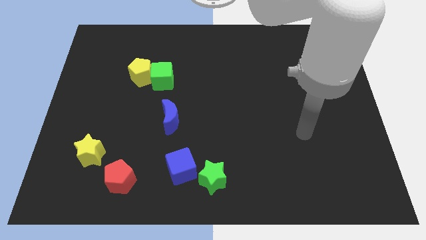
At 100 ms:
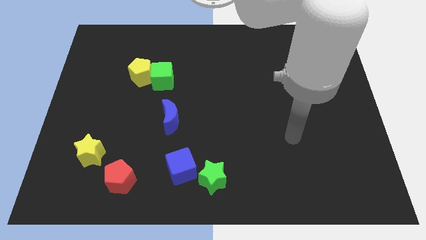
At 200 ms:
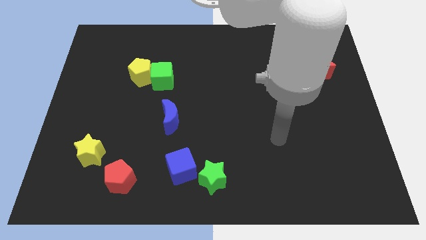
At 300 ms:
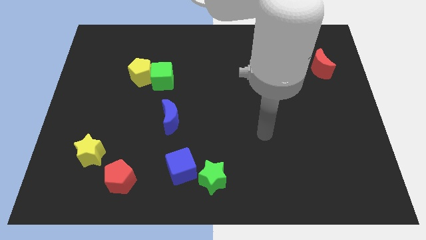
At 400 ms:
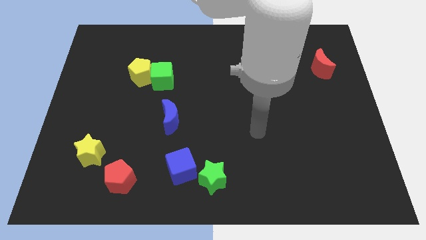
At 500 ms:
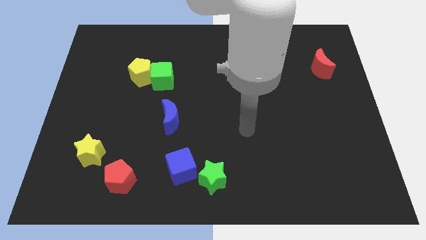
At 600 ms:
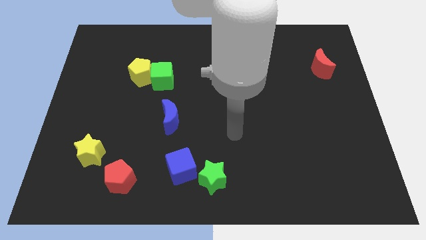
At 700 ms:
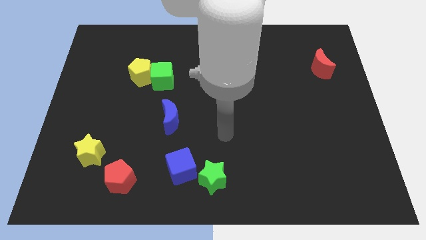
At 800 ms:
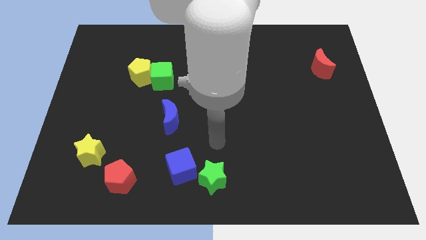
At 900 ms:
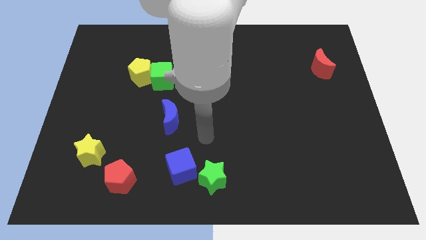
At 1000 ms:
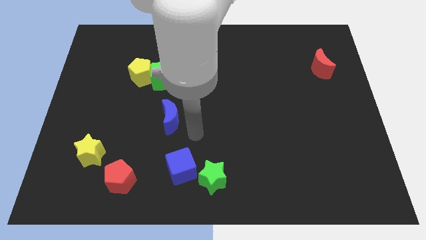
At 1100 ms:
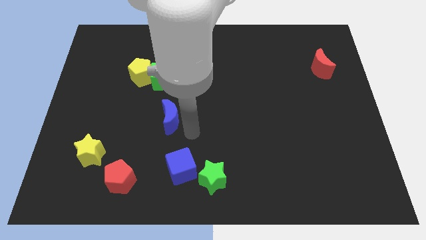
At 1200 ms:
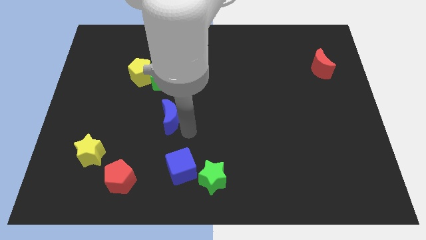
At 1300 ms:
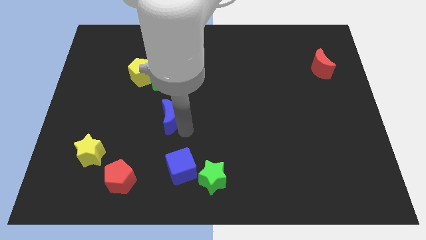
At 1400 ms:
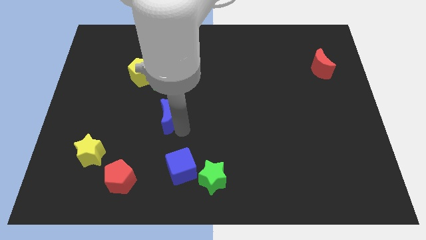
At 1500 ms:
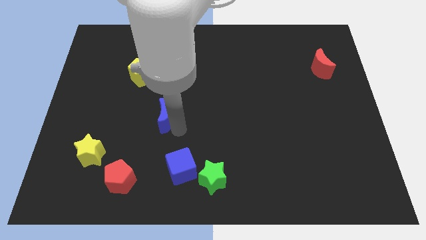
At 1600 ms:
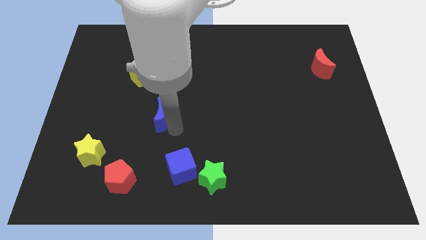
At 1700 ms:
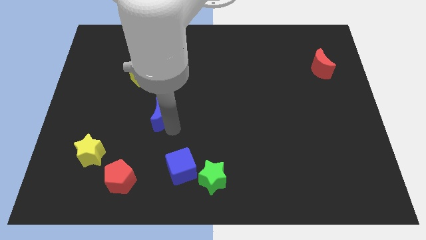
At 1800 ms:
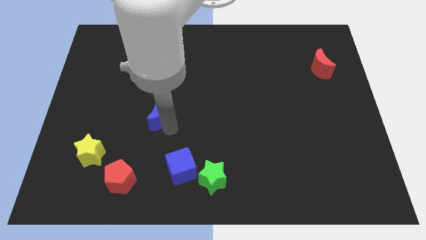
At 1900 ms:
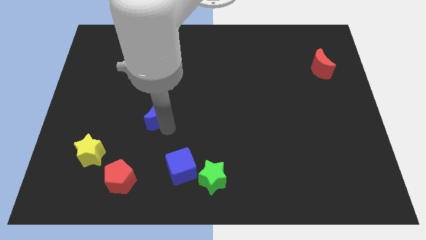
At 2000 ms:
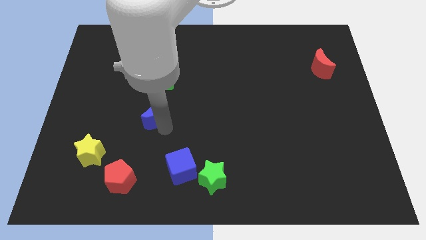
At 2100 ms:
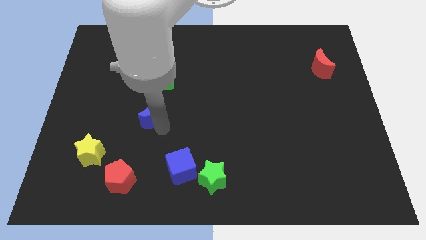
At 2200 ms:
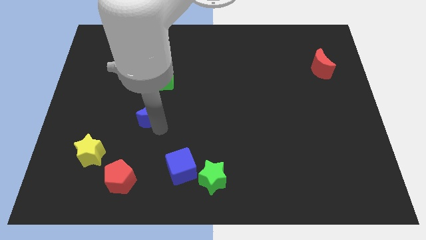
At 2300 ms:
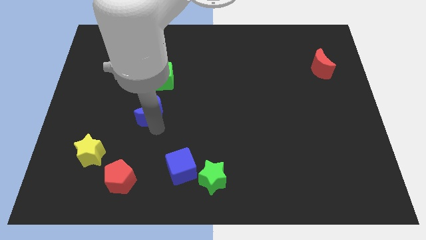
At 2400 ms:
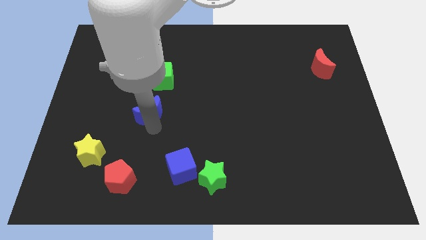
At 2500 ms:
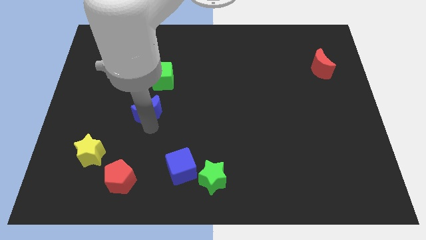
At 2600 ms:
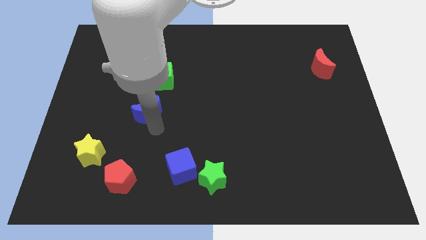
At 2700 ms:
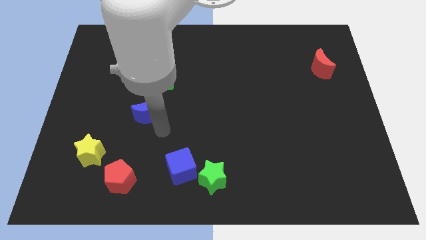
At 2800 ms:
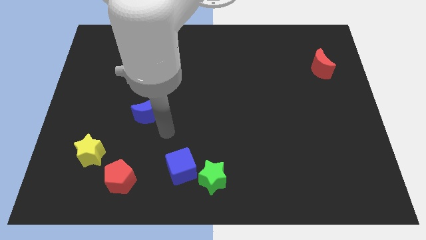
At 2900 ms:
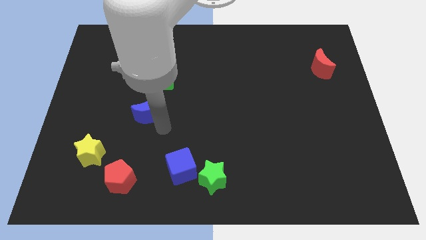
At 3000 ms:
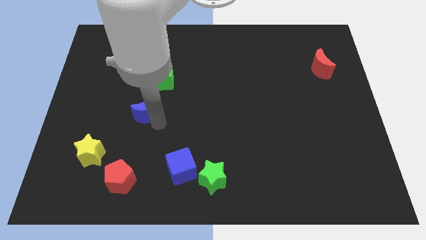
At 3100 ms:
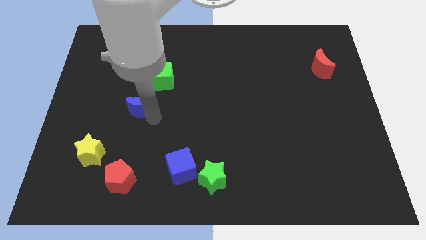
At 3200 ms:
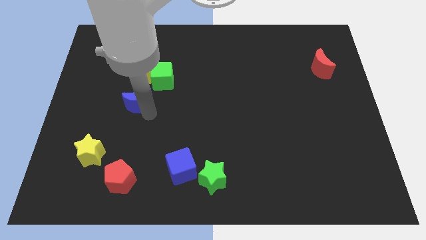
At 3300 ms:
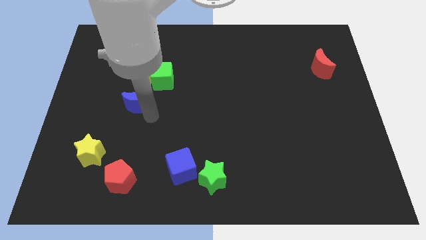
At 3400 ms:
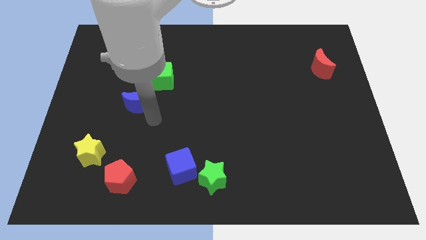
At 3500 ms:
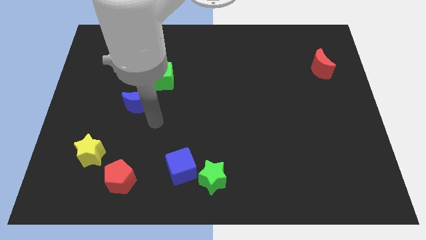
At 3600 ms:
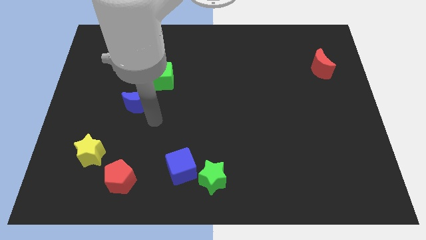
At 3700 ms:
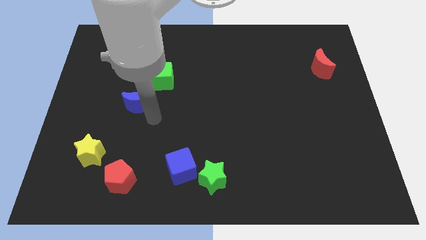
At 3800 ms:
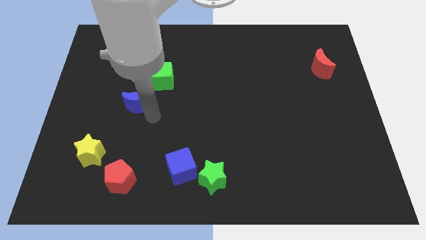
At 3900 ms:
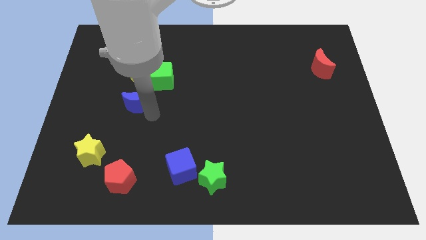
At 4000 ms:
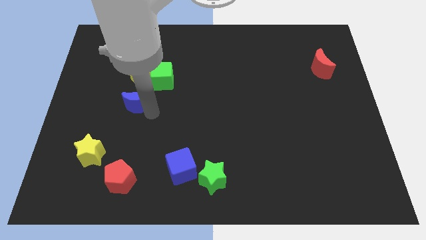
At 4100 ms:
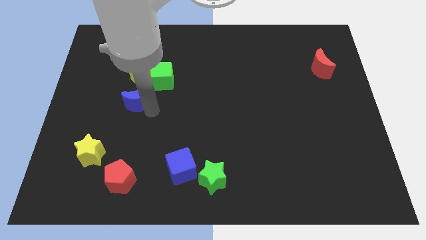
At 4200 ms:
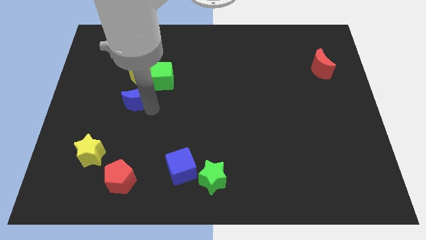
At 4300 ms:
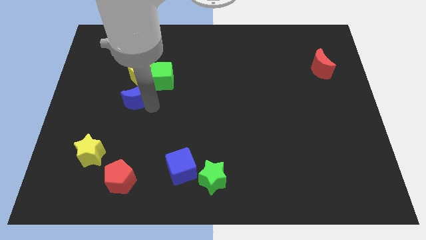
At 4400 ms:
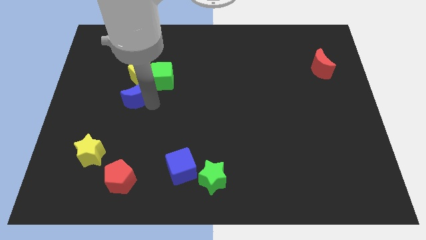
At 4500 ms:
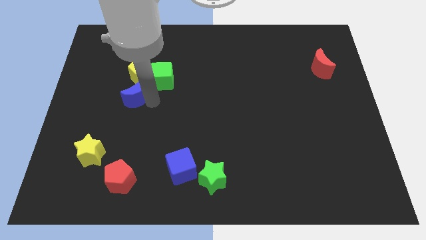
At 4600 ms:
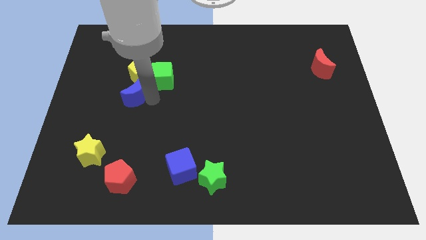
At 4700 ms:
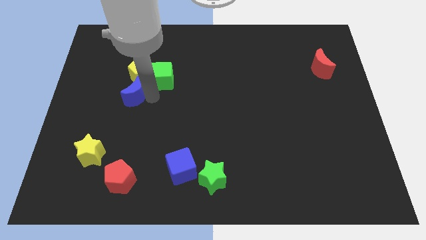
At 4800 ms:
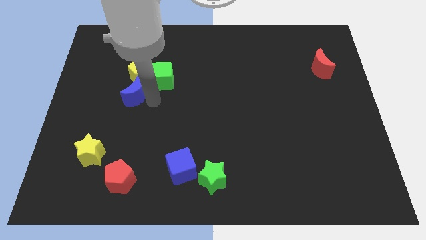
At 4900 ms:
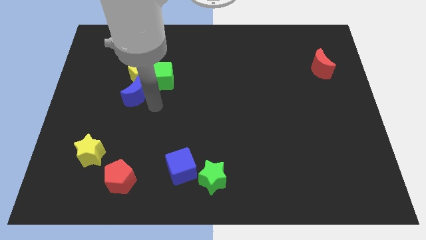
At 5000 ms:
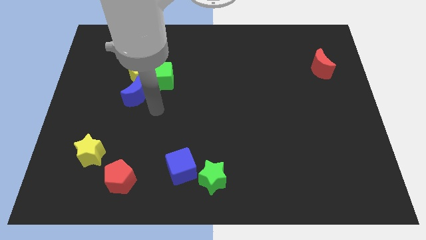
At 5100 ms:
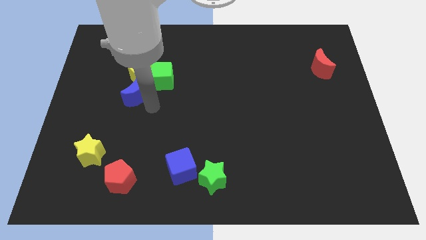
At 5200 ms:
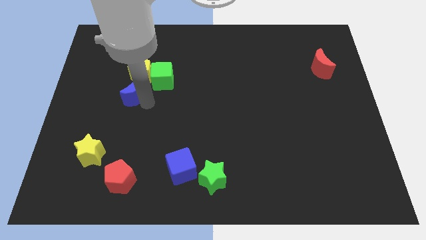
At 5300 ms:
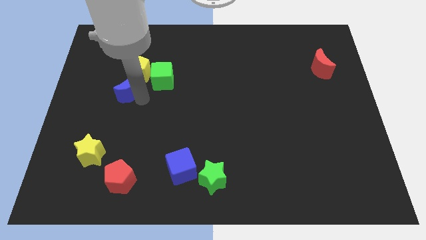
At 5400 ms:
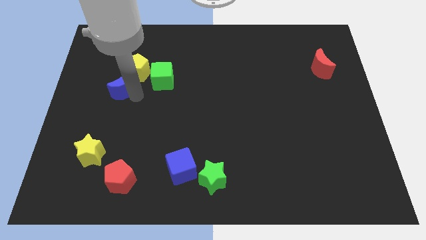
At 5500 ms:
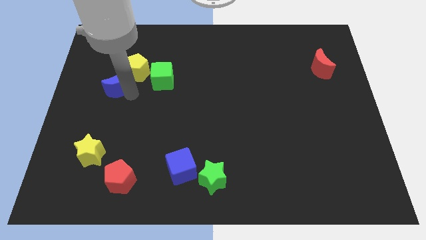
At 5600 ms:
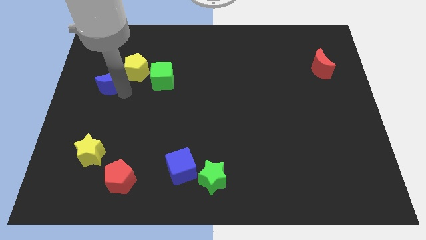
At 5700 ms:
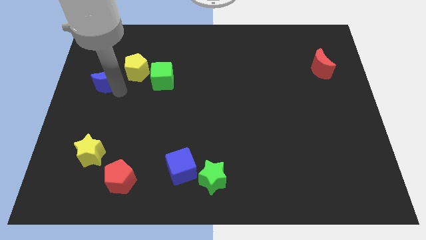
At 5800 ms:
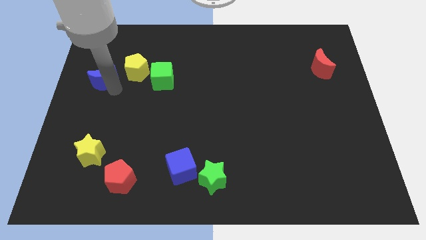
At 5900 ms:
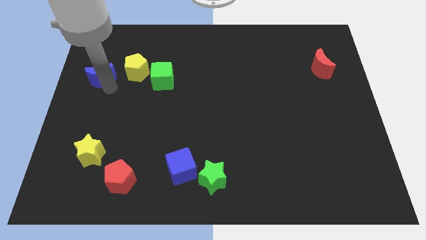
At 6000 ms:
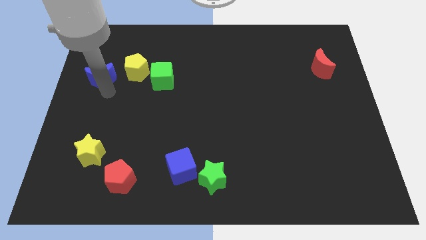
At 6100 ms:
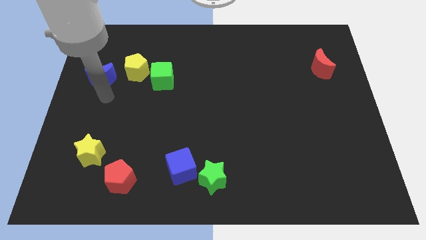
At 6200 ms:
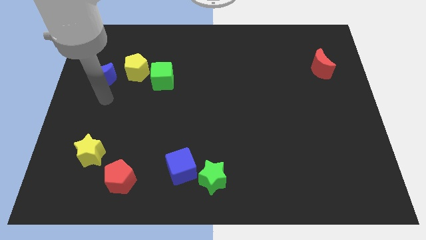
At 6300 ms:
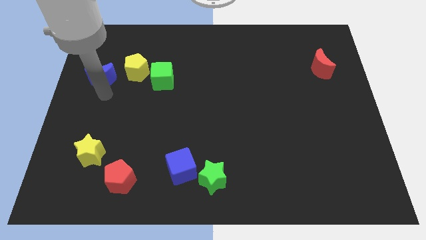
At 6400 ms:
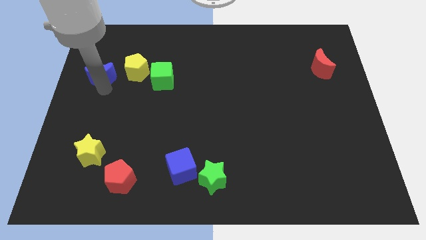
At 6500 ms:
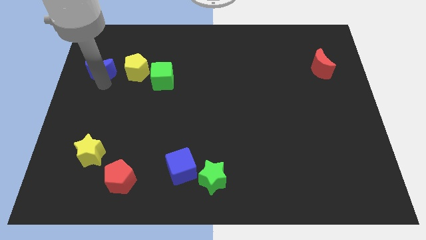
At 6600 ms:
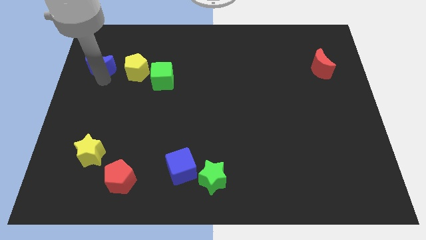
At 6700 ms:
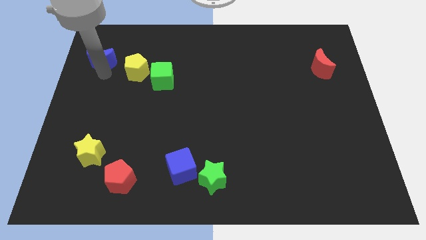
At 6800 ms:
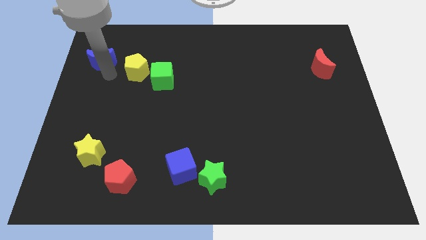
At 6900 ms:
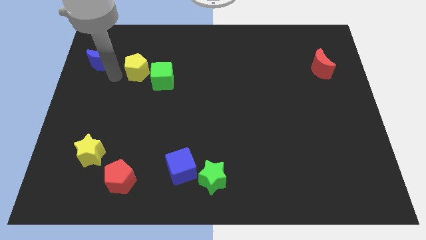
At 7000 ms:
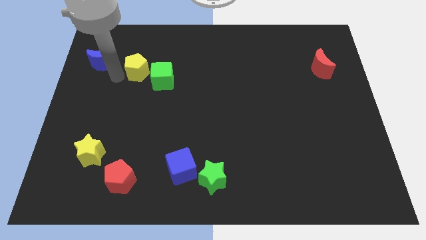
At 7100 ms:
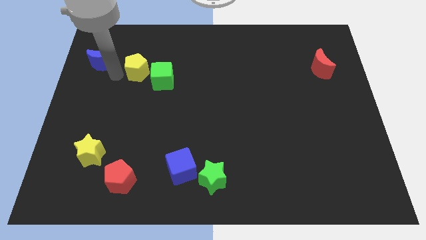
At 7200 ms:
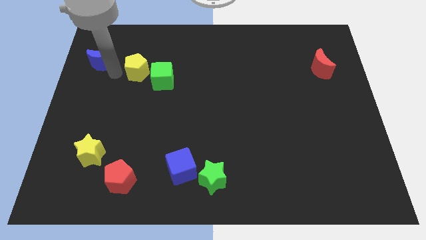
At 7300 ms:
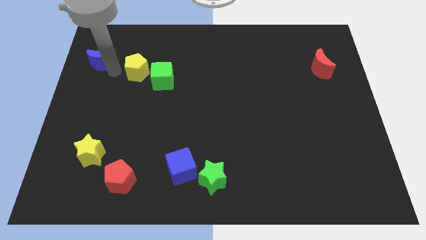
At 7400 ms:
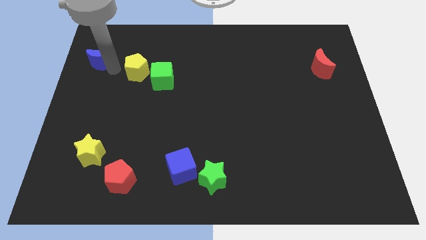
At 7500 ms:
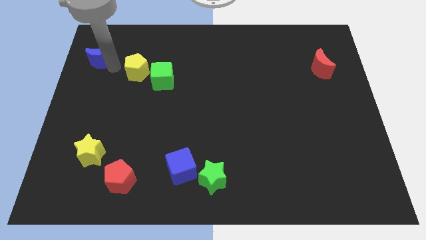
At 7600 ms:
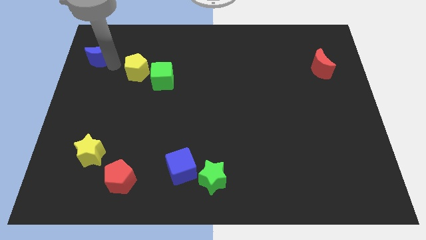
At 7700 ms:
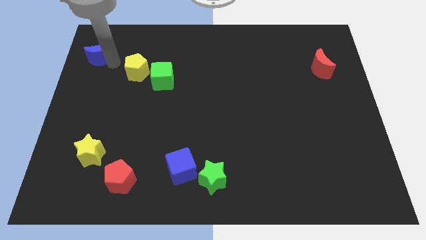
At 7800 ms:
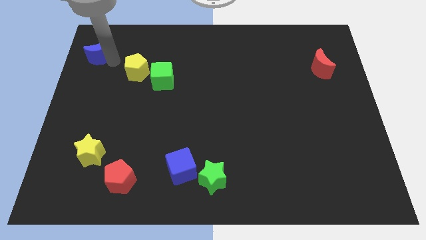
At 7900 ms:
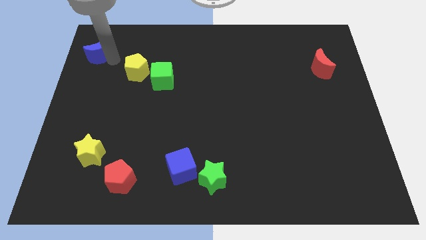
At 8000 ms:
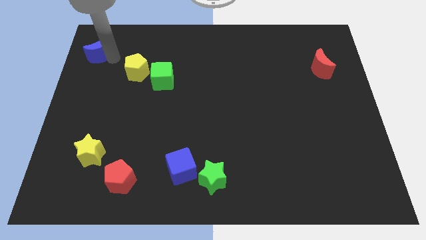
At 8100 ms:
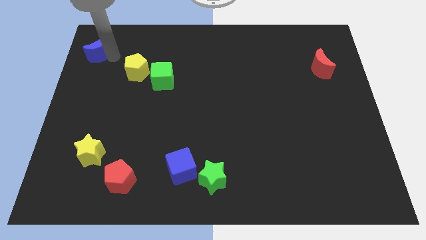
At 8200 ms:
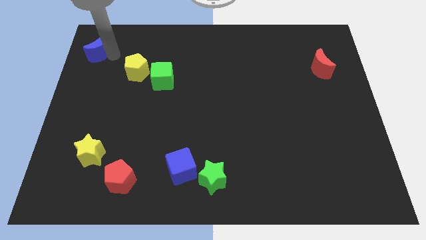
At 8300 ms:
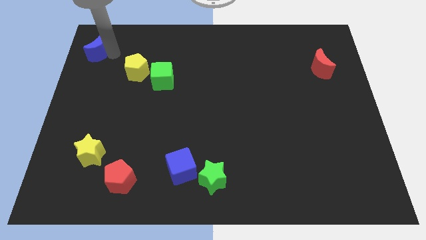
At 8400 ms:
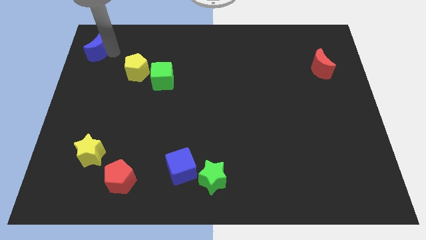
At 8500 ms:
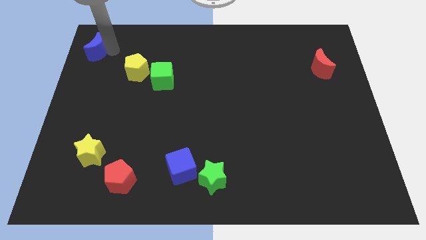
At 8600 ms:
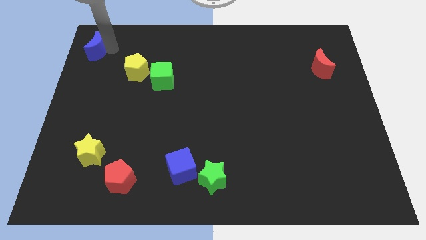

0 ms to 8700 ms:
push the blue moon to the top left of the board
